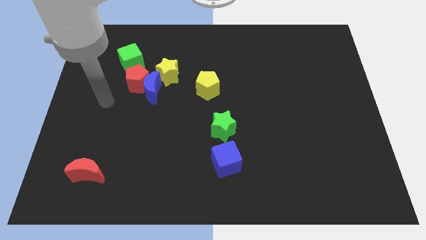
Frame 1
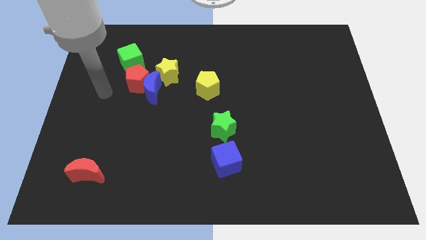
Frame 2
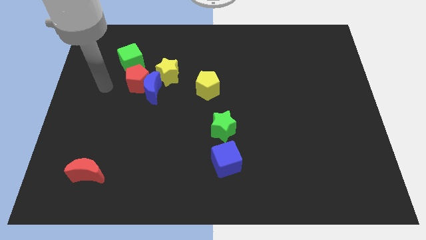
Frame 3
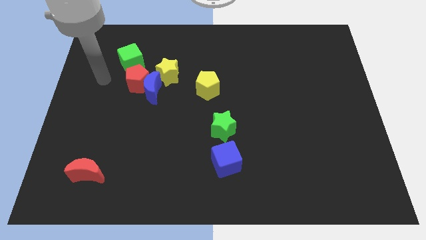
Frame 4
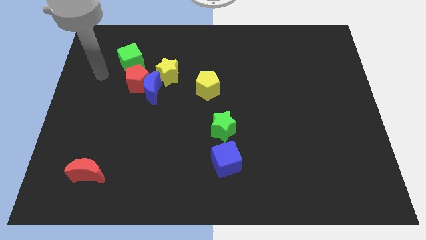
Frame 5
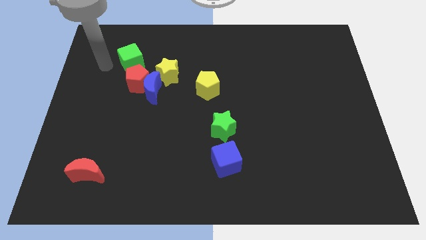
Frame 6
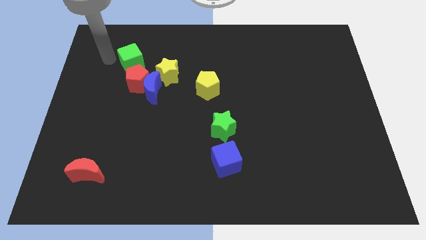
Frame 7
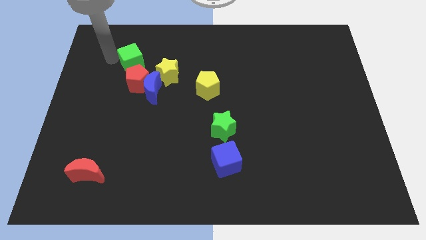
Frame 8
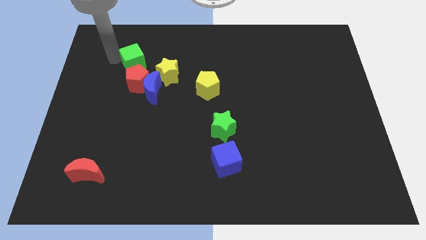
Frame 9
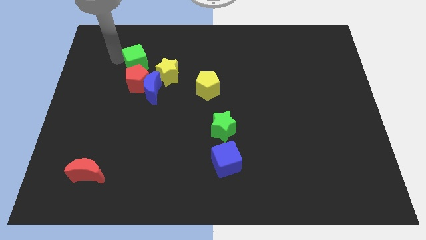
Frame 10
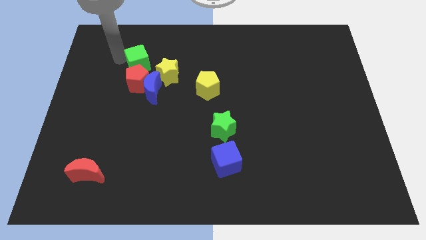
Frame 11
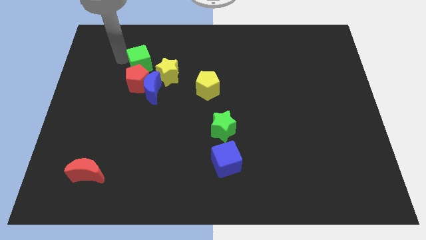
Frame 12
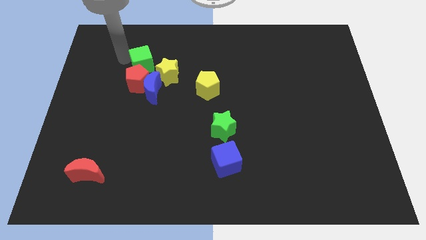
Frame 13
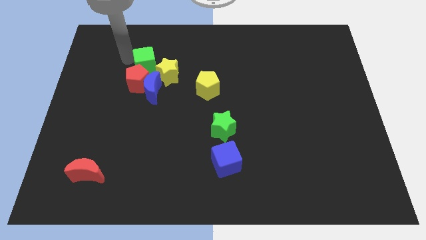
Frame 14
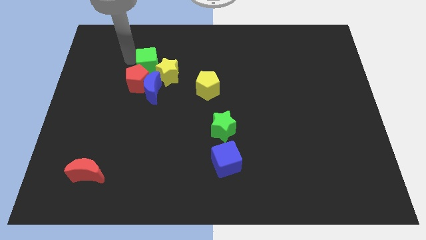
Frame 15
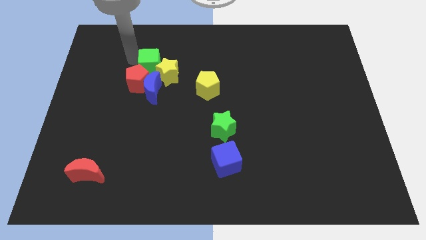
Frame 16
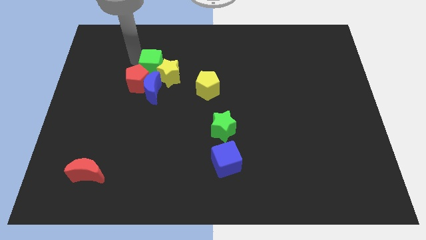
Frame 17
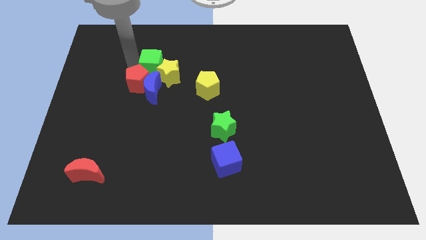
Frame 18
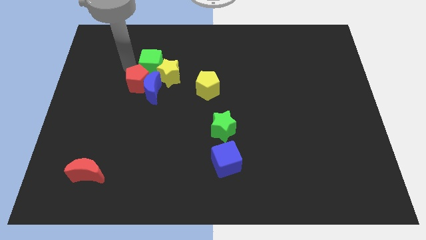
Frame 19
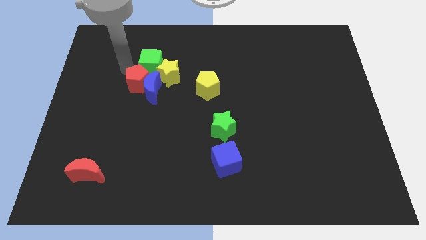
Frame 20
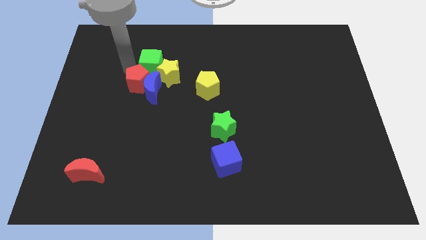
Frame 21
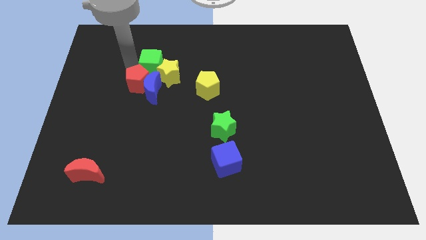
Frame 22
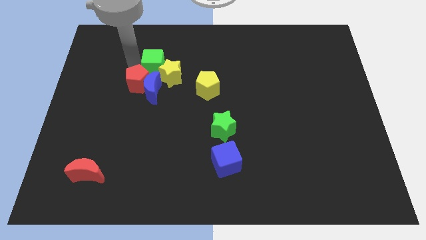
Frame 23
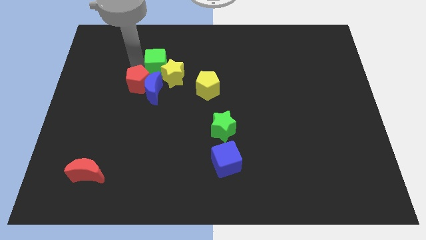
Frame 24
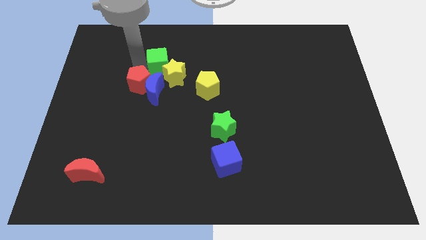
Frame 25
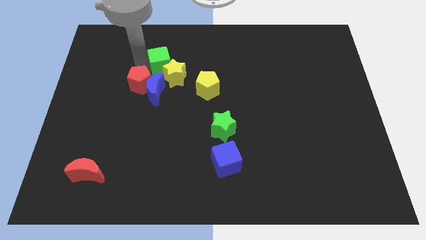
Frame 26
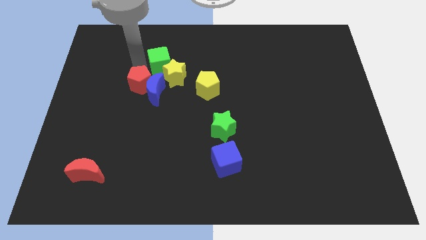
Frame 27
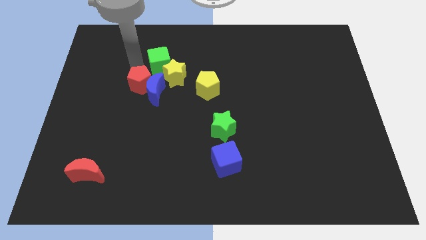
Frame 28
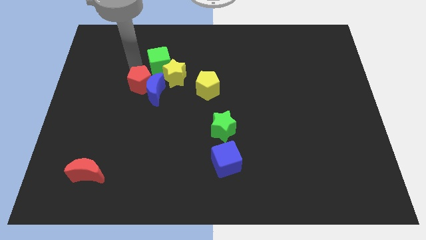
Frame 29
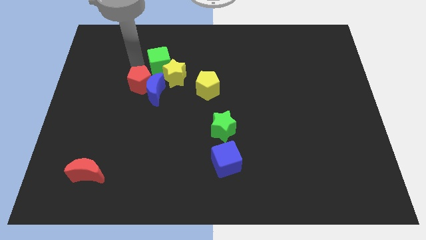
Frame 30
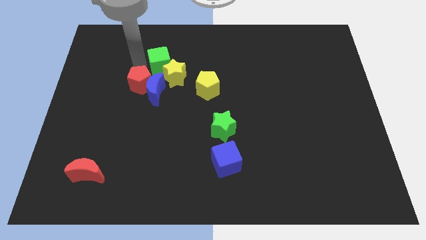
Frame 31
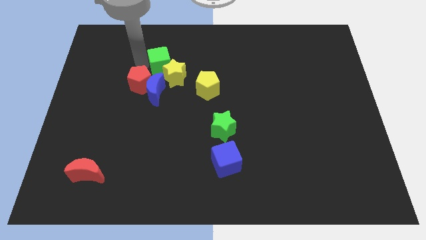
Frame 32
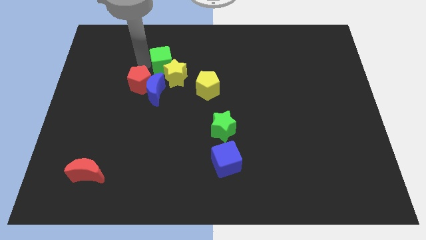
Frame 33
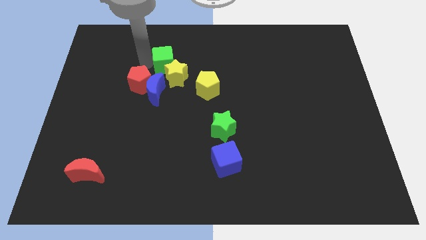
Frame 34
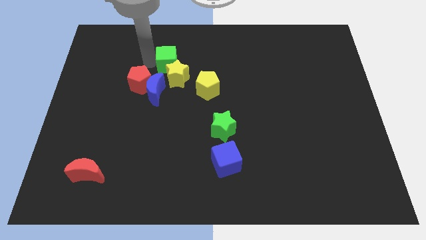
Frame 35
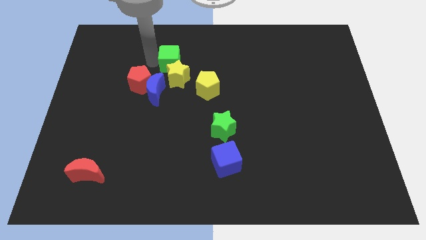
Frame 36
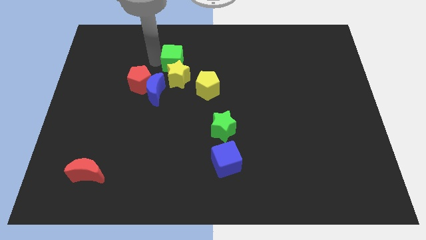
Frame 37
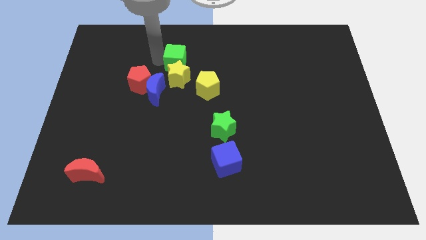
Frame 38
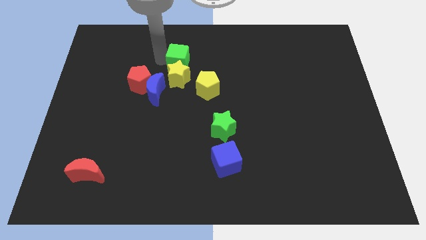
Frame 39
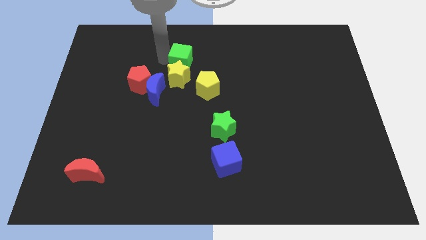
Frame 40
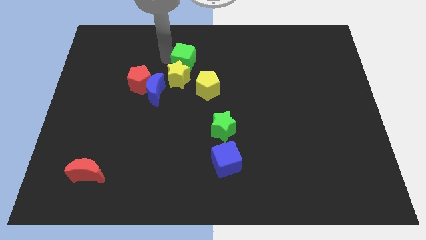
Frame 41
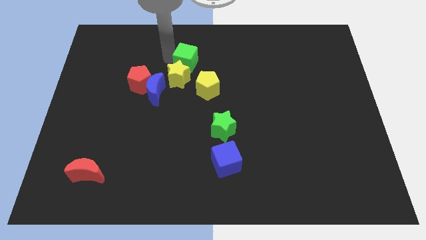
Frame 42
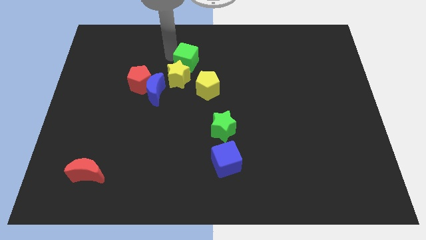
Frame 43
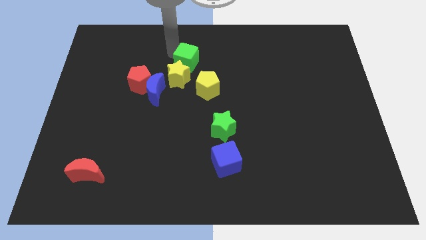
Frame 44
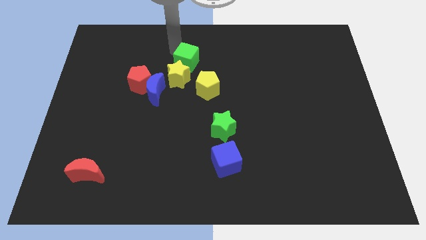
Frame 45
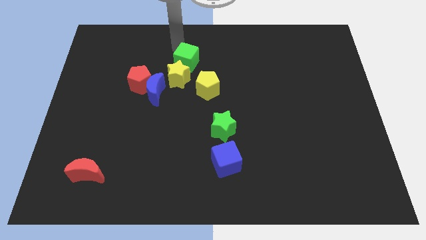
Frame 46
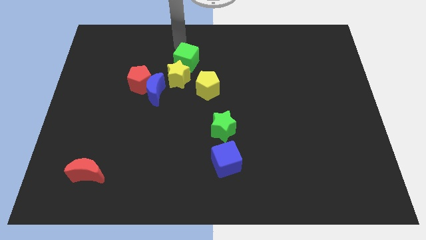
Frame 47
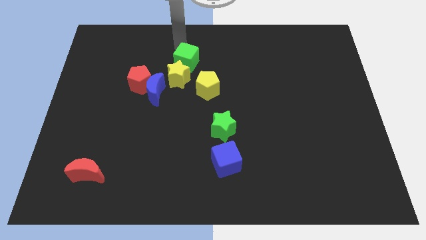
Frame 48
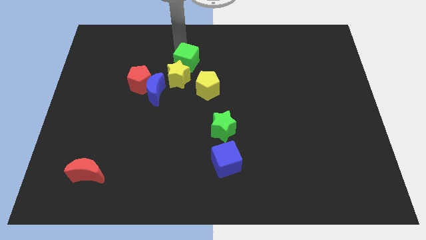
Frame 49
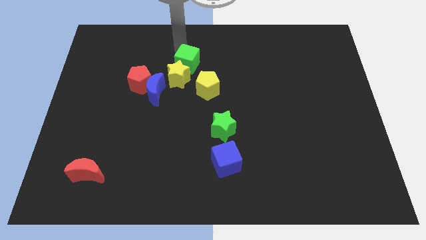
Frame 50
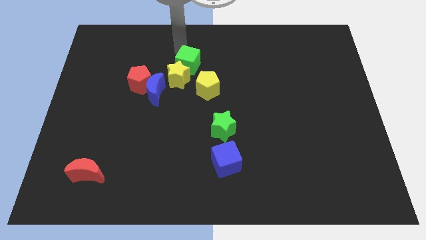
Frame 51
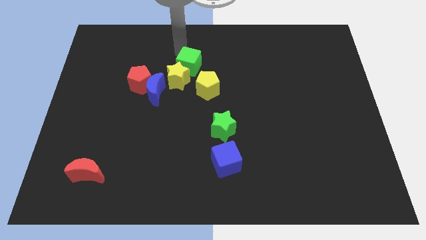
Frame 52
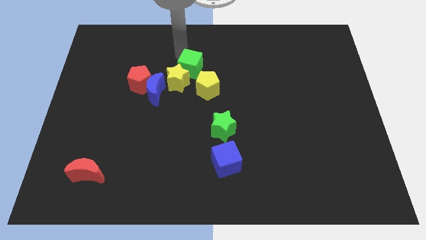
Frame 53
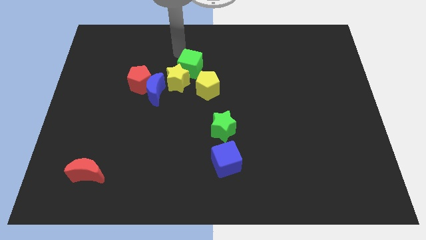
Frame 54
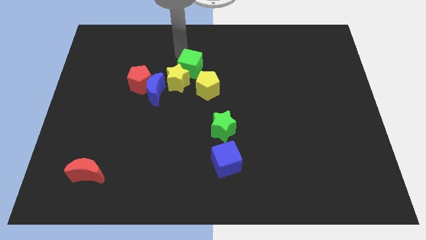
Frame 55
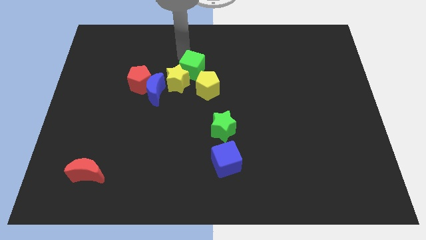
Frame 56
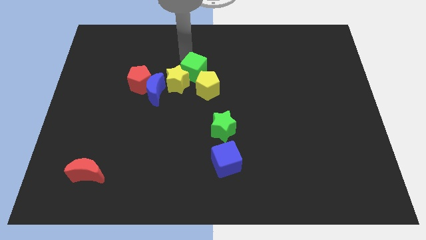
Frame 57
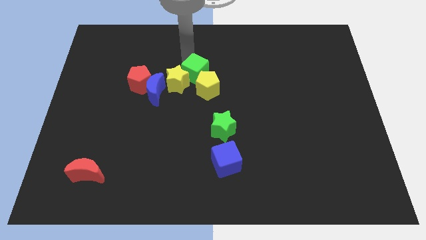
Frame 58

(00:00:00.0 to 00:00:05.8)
put the green cube close to the yellow pentagon

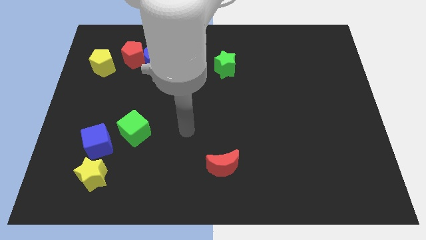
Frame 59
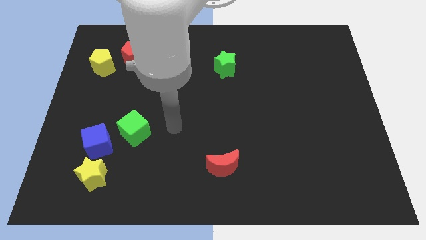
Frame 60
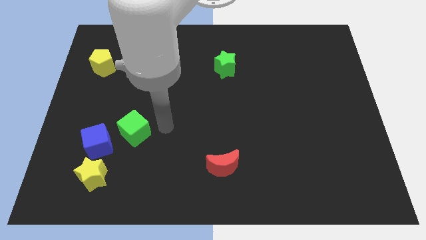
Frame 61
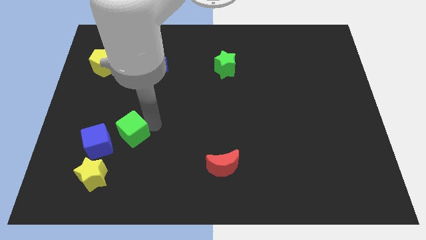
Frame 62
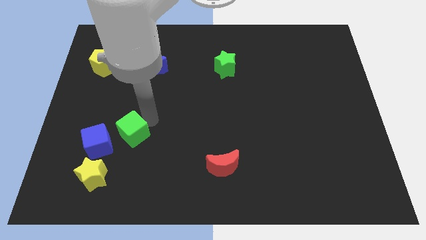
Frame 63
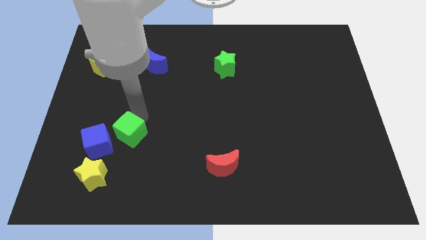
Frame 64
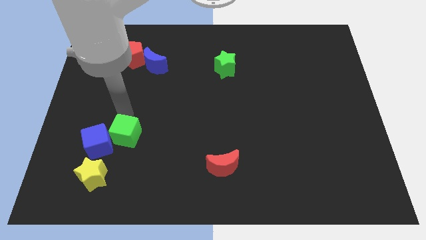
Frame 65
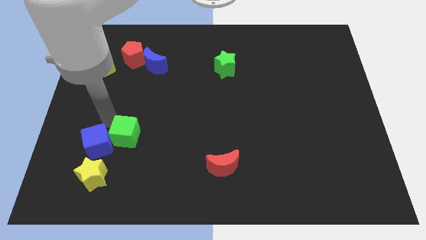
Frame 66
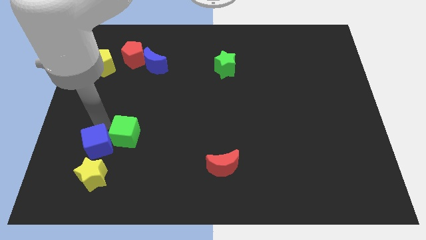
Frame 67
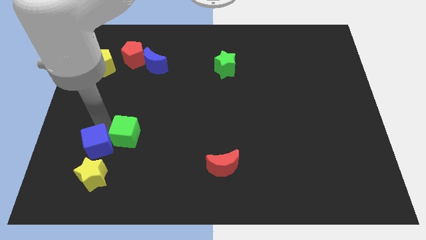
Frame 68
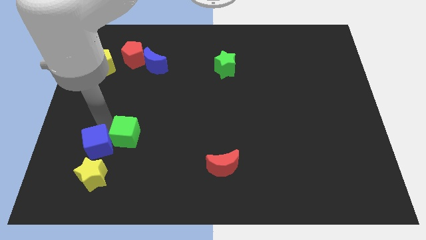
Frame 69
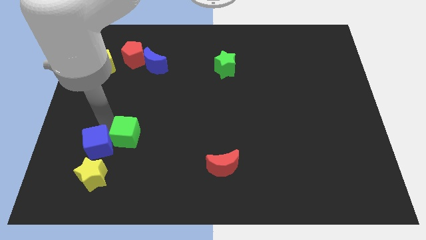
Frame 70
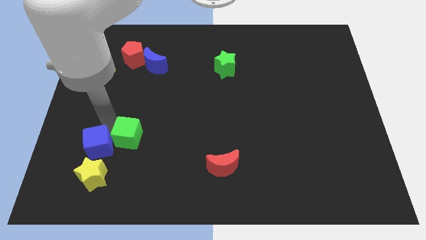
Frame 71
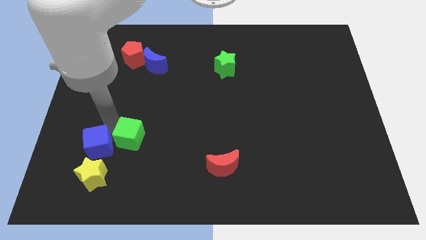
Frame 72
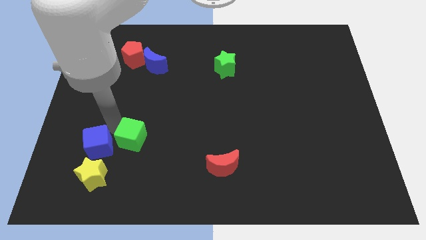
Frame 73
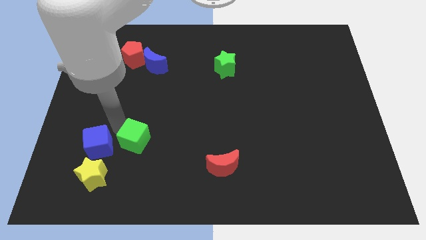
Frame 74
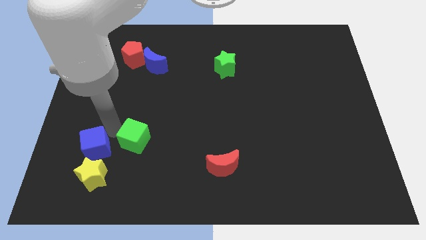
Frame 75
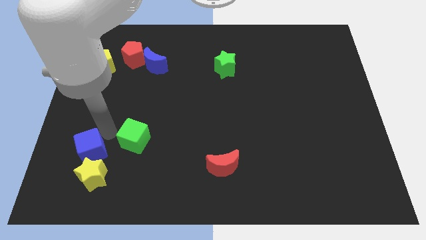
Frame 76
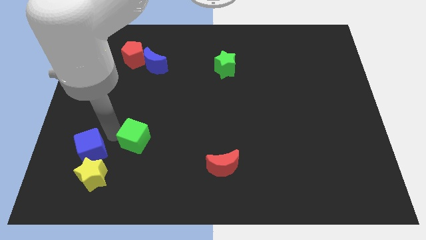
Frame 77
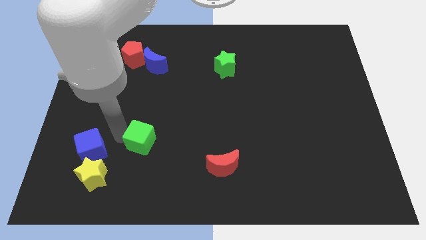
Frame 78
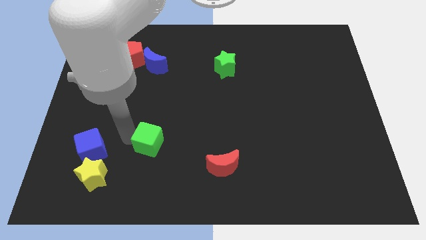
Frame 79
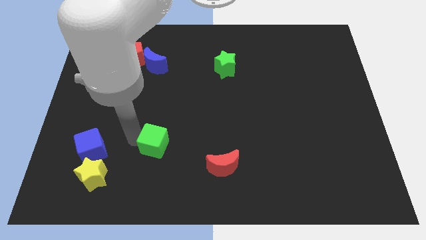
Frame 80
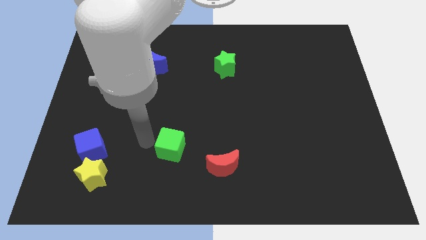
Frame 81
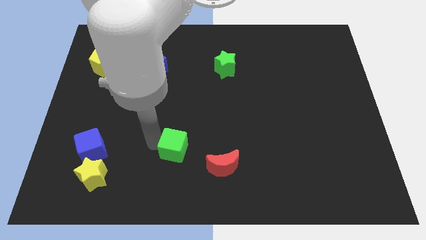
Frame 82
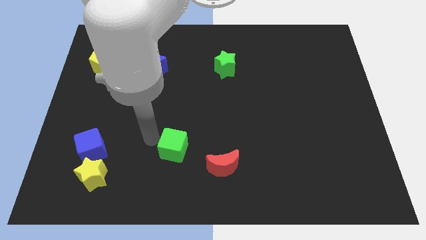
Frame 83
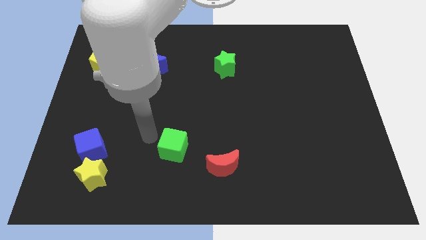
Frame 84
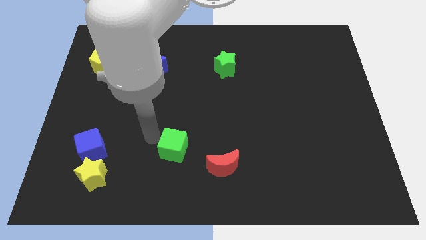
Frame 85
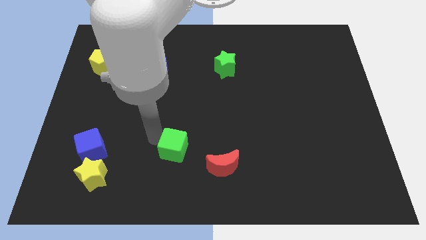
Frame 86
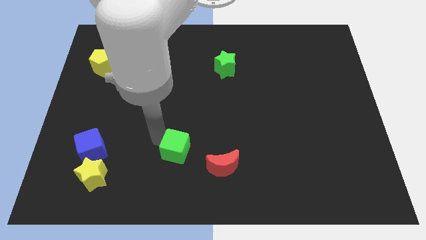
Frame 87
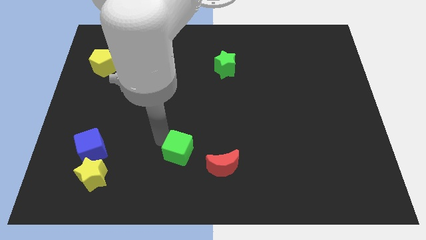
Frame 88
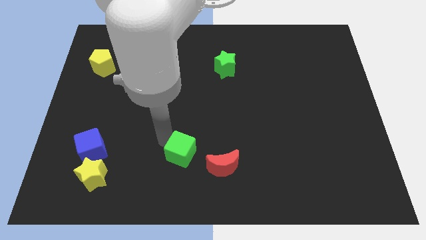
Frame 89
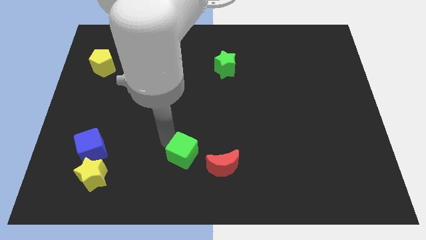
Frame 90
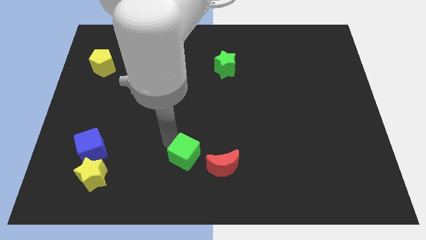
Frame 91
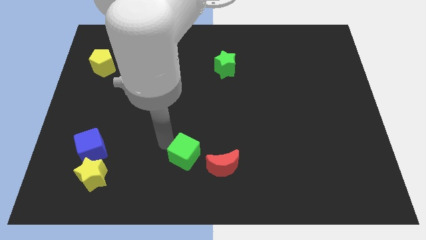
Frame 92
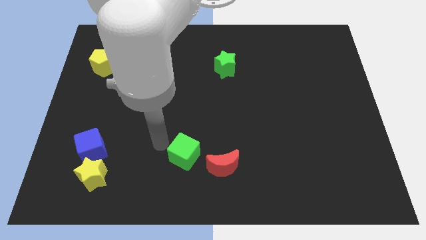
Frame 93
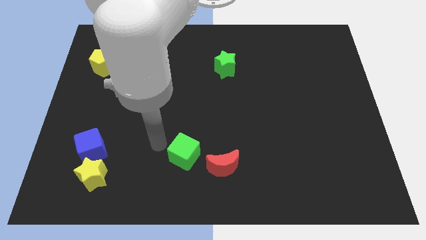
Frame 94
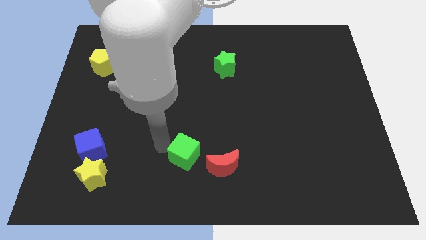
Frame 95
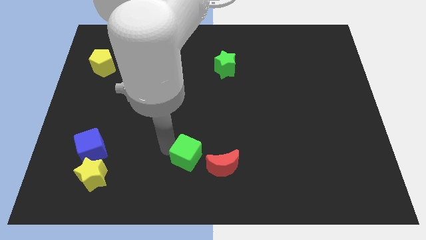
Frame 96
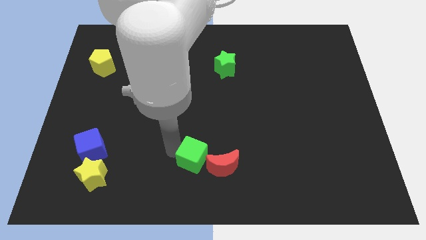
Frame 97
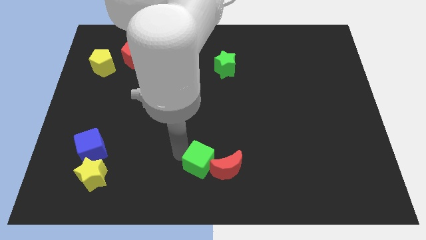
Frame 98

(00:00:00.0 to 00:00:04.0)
push the green cube to the red moon
